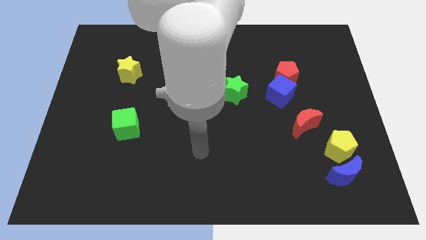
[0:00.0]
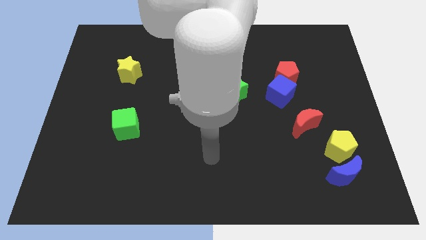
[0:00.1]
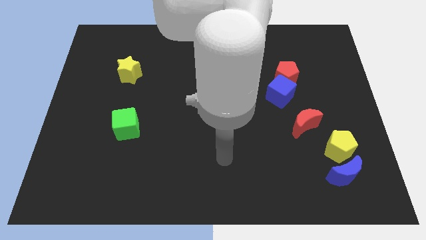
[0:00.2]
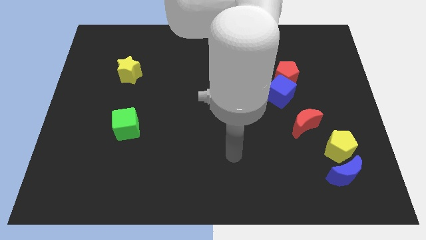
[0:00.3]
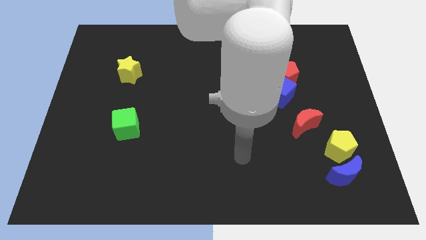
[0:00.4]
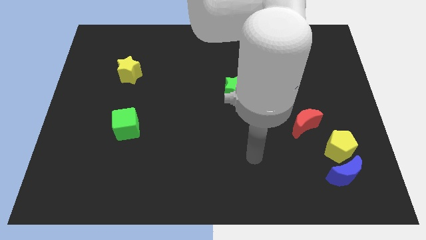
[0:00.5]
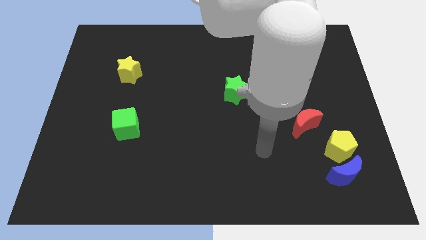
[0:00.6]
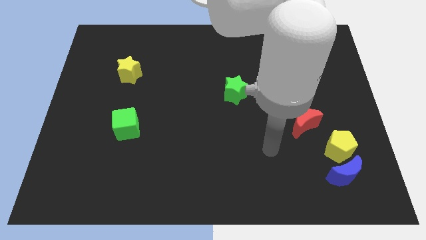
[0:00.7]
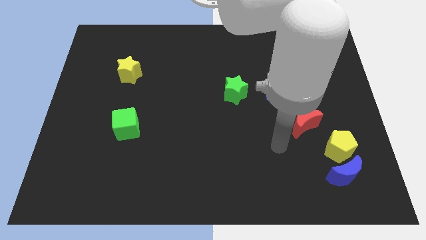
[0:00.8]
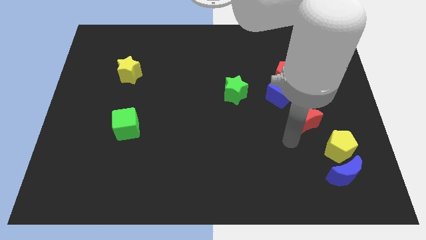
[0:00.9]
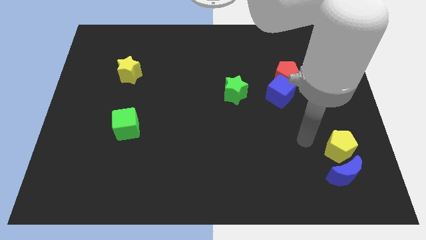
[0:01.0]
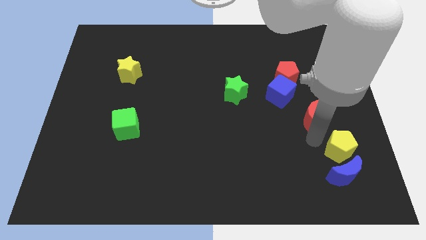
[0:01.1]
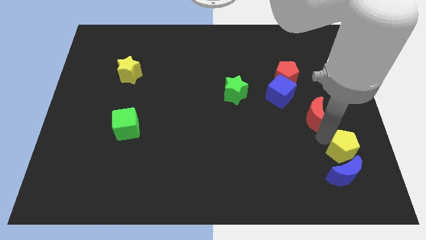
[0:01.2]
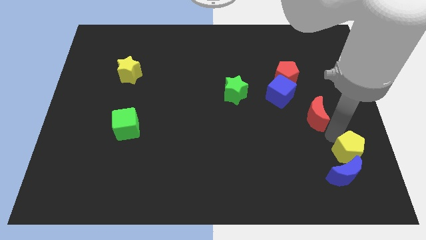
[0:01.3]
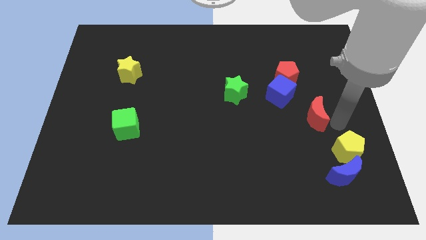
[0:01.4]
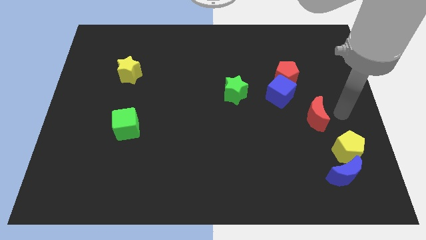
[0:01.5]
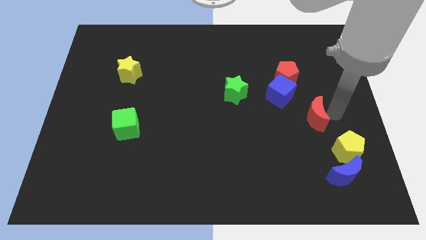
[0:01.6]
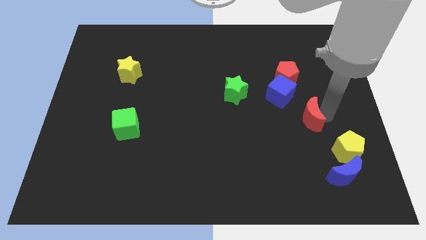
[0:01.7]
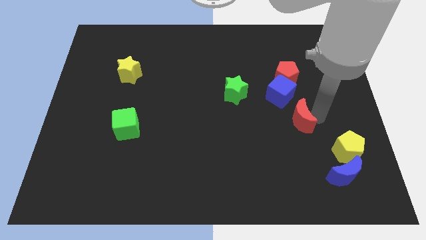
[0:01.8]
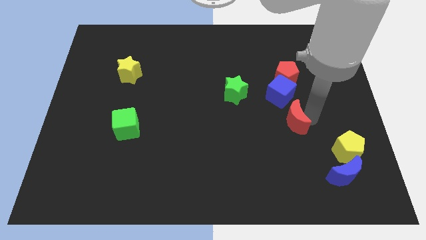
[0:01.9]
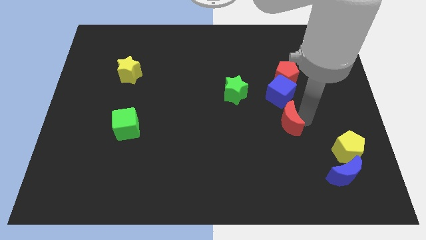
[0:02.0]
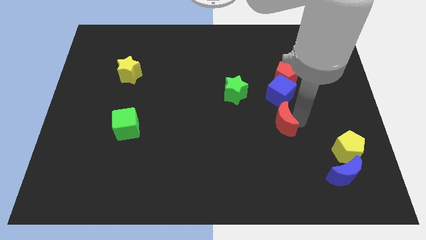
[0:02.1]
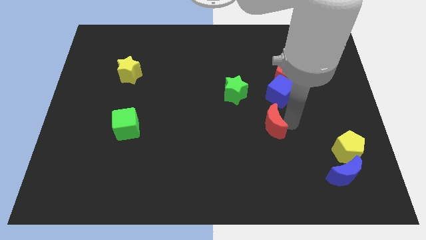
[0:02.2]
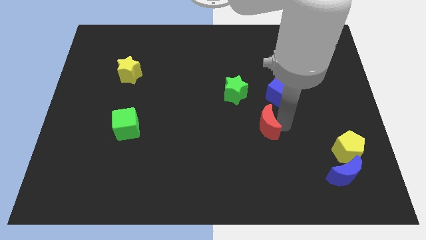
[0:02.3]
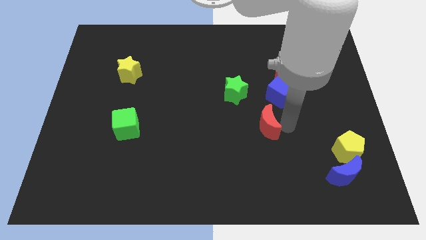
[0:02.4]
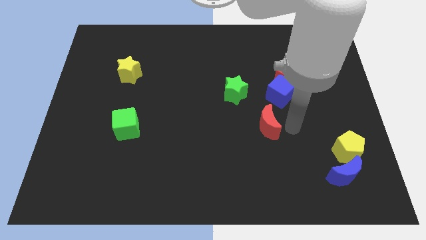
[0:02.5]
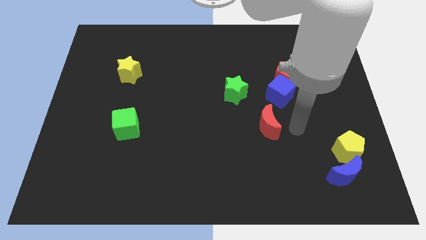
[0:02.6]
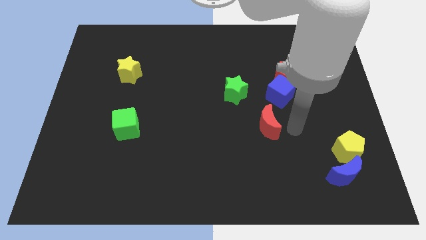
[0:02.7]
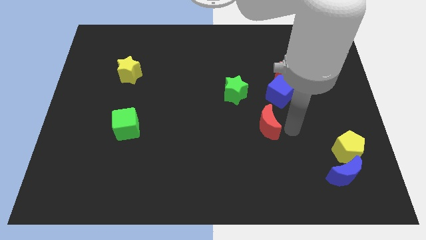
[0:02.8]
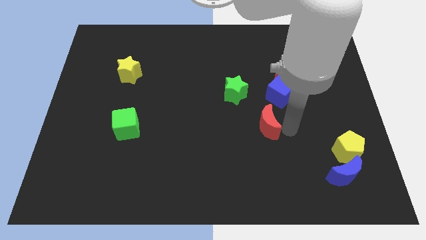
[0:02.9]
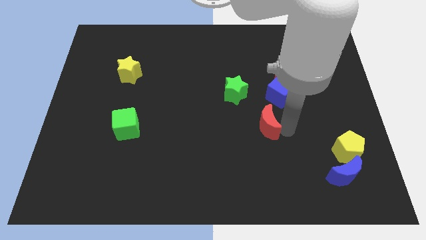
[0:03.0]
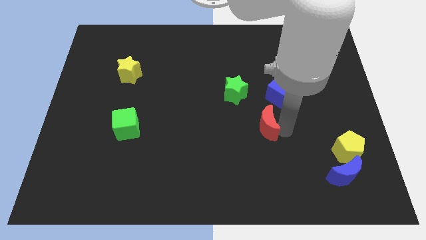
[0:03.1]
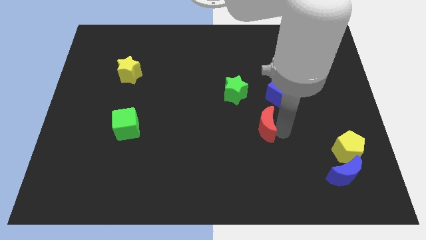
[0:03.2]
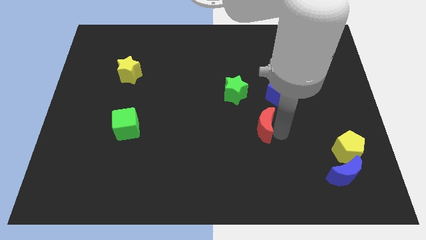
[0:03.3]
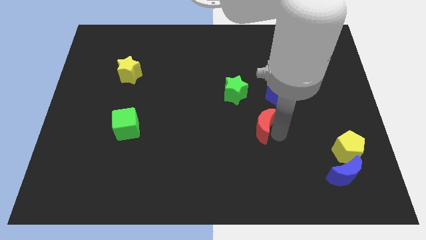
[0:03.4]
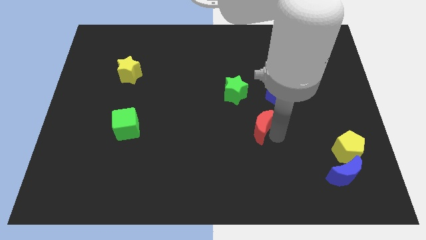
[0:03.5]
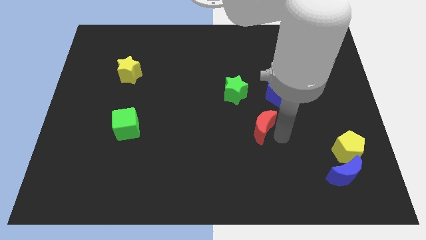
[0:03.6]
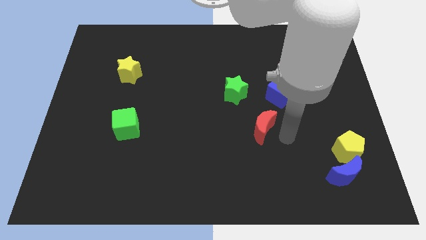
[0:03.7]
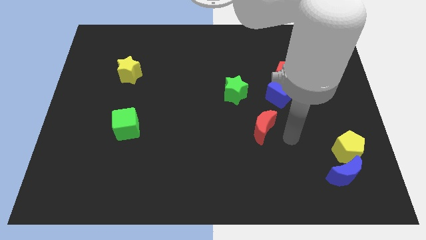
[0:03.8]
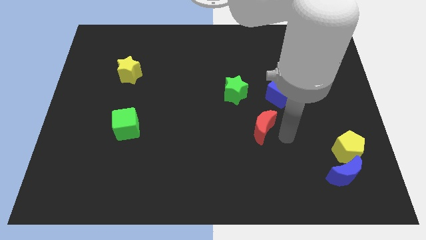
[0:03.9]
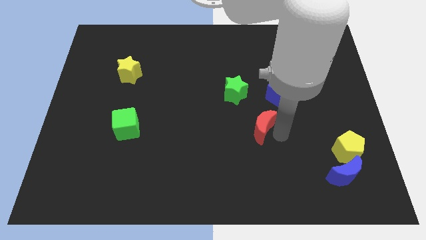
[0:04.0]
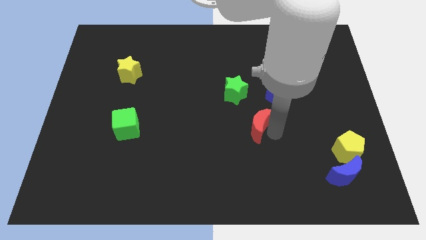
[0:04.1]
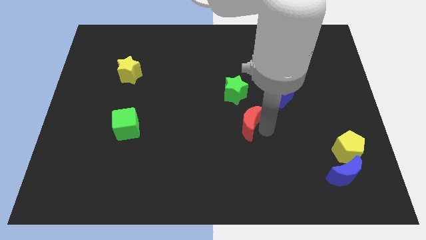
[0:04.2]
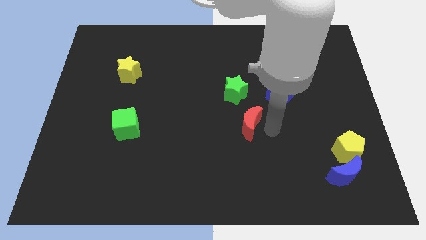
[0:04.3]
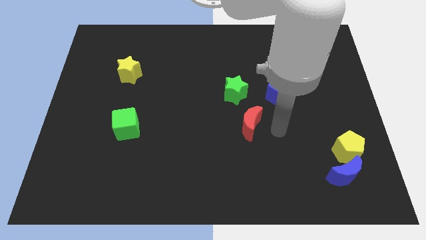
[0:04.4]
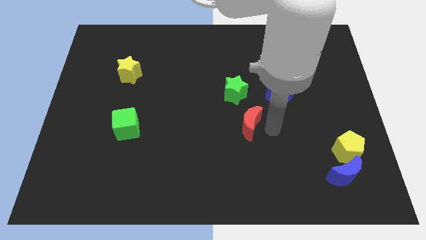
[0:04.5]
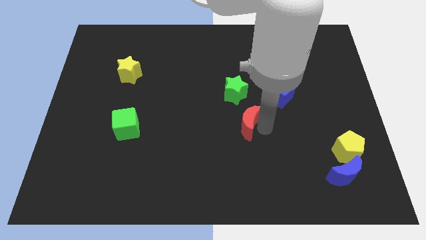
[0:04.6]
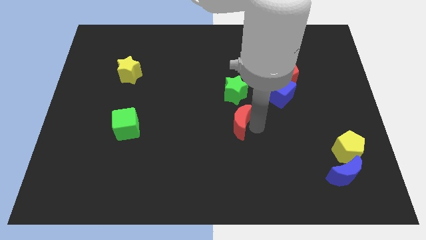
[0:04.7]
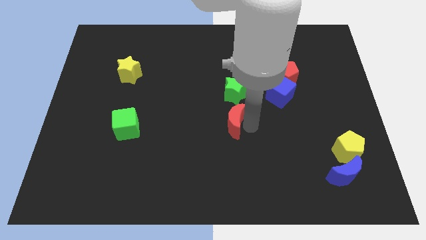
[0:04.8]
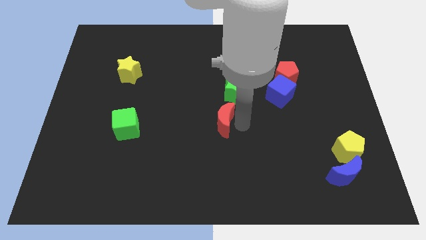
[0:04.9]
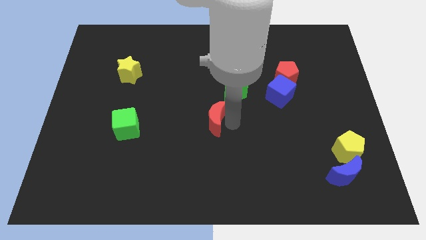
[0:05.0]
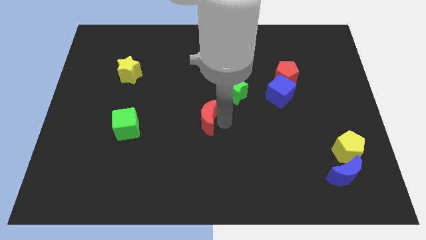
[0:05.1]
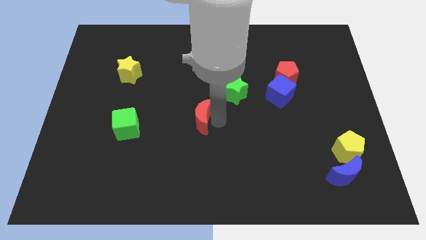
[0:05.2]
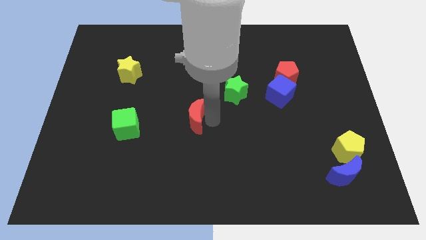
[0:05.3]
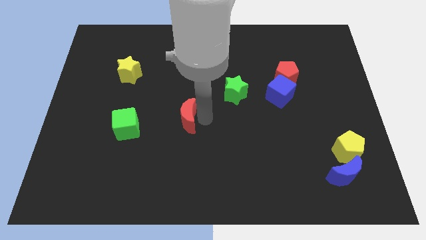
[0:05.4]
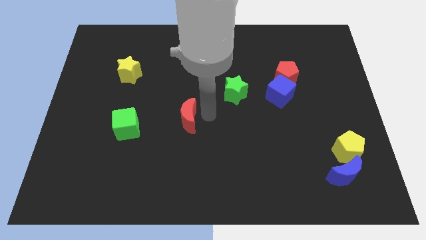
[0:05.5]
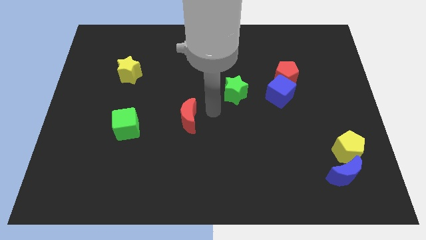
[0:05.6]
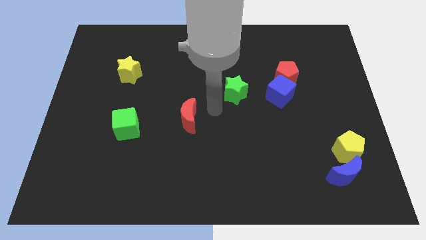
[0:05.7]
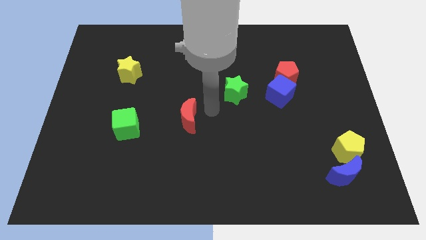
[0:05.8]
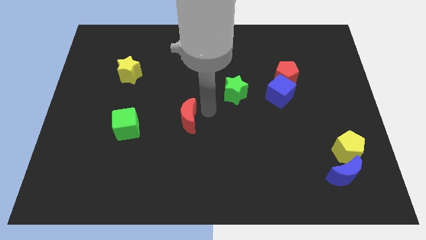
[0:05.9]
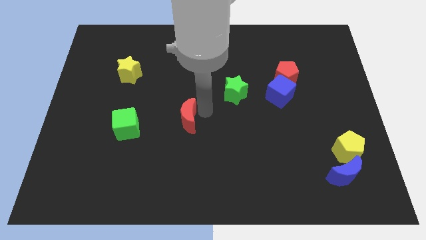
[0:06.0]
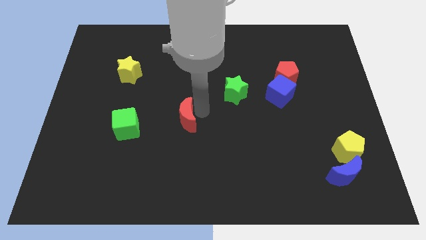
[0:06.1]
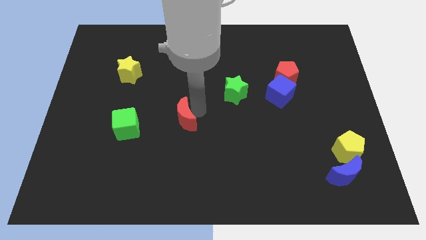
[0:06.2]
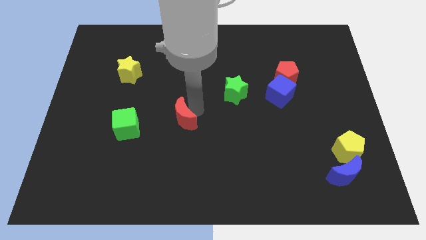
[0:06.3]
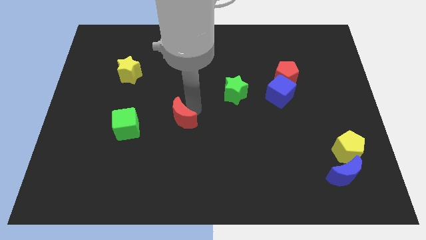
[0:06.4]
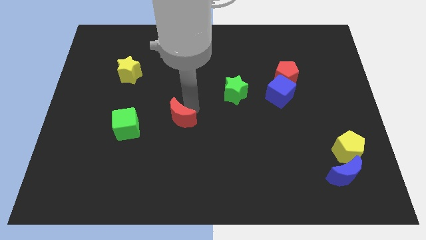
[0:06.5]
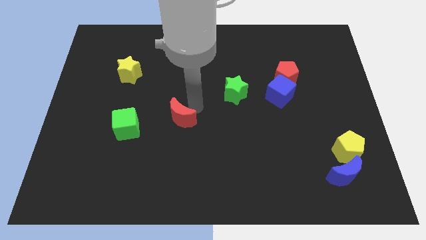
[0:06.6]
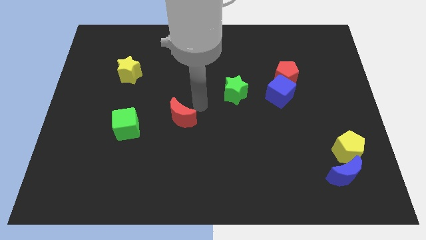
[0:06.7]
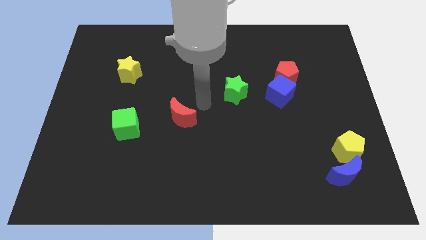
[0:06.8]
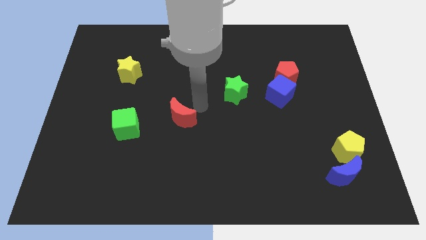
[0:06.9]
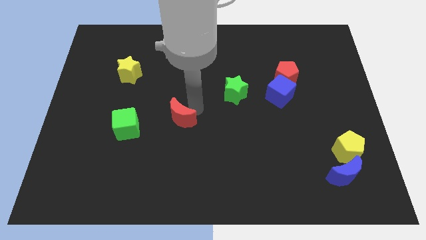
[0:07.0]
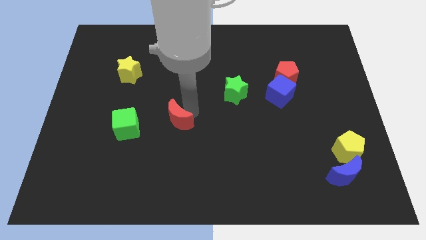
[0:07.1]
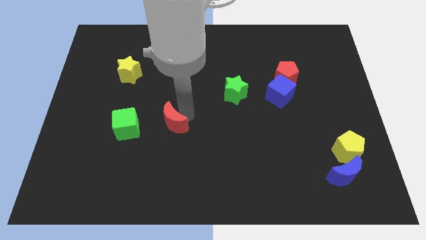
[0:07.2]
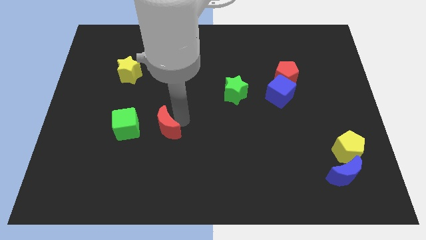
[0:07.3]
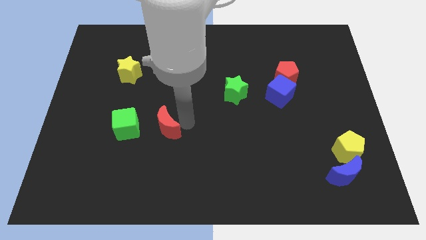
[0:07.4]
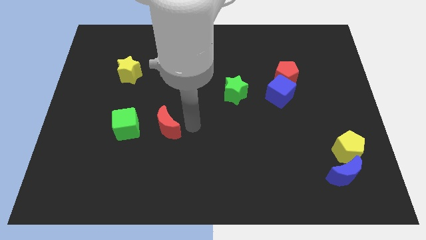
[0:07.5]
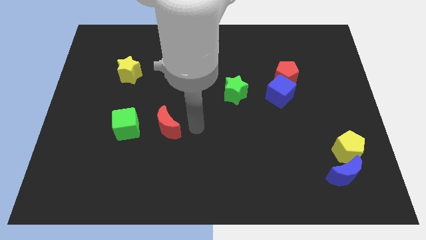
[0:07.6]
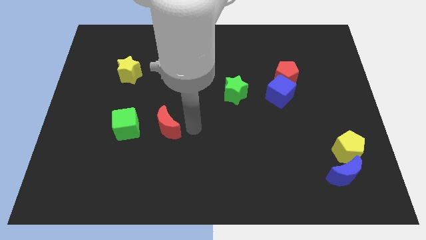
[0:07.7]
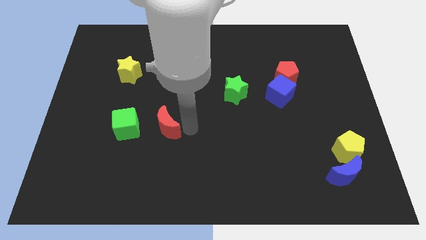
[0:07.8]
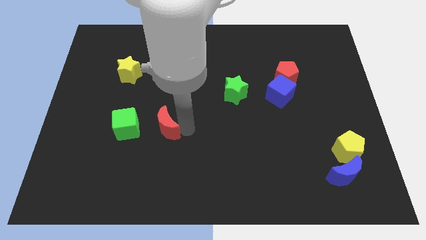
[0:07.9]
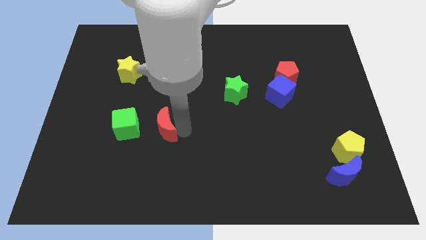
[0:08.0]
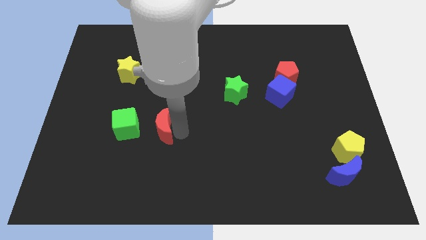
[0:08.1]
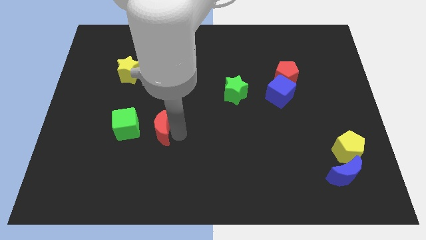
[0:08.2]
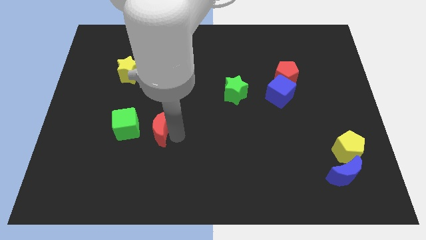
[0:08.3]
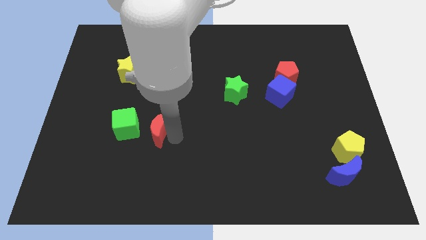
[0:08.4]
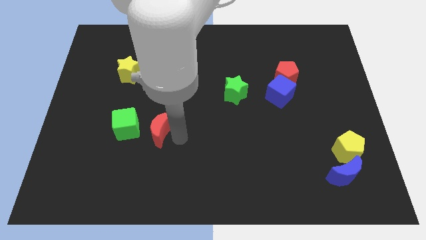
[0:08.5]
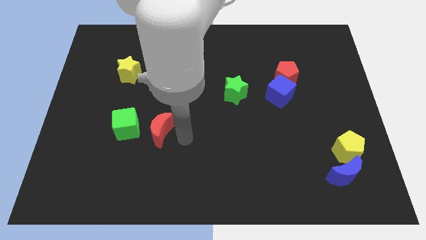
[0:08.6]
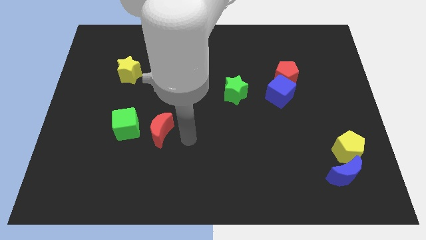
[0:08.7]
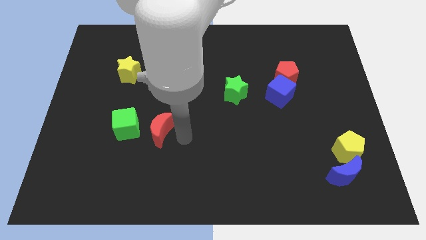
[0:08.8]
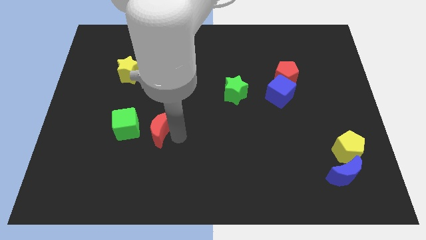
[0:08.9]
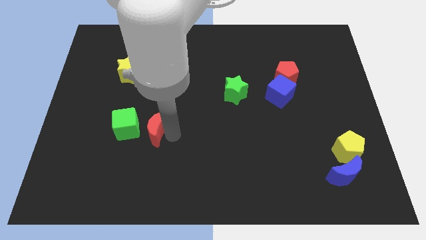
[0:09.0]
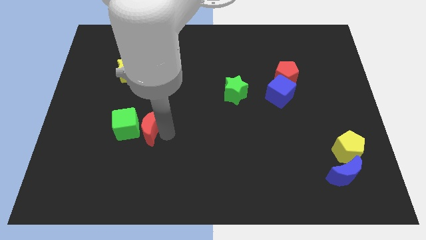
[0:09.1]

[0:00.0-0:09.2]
move the red moon to the green cube
